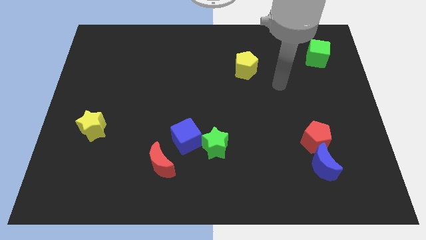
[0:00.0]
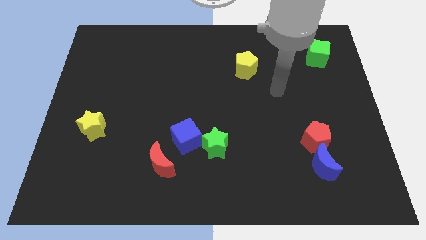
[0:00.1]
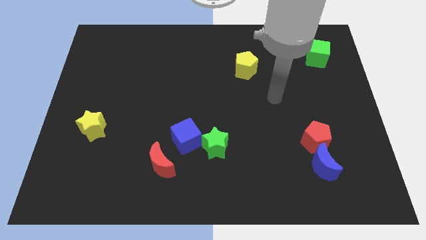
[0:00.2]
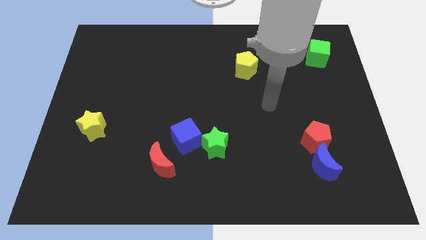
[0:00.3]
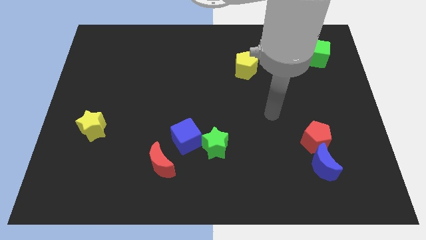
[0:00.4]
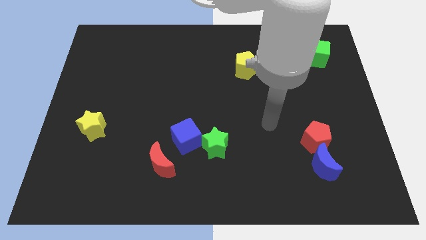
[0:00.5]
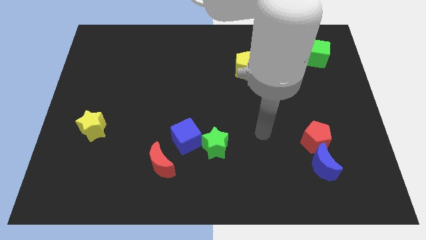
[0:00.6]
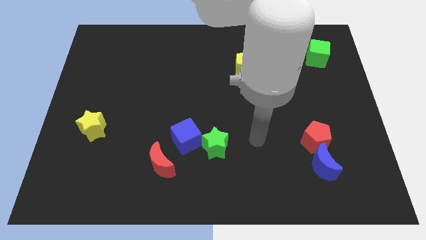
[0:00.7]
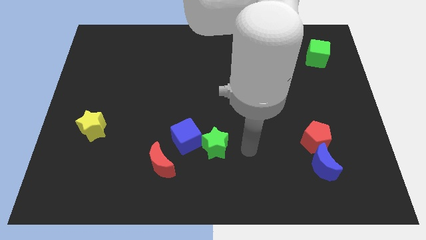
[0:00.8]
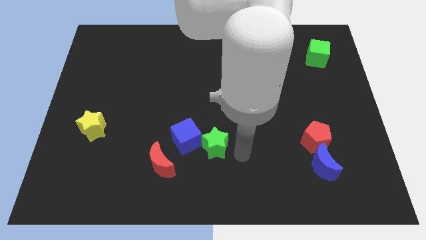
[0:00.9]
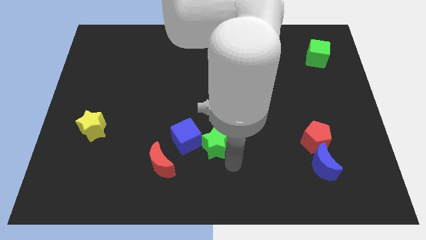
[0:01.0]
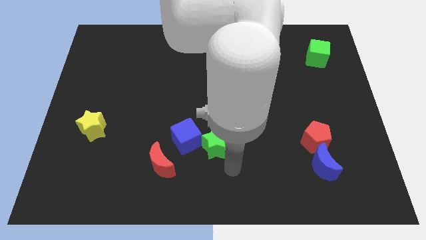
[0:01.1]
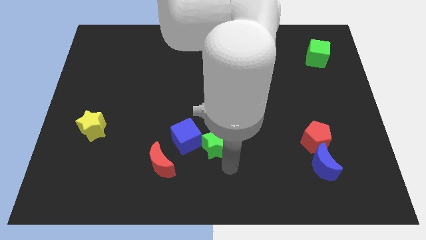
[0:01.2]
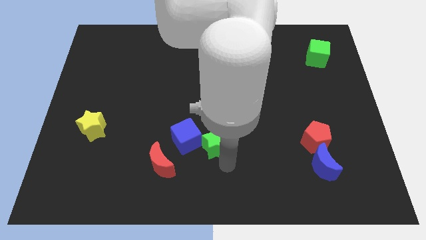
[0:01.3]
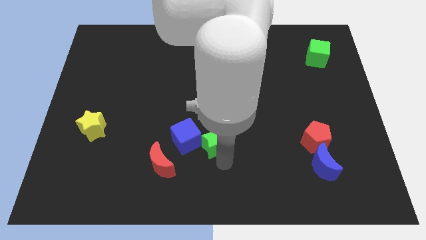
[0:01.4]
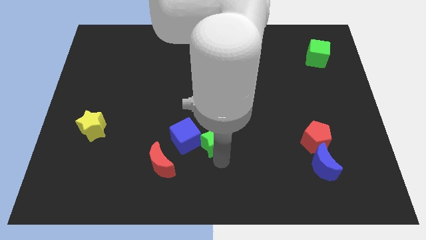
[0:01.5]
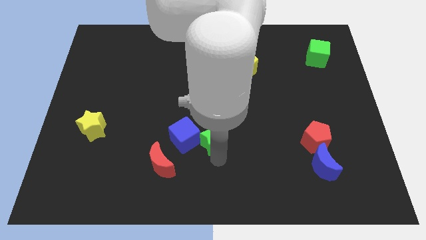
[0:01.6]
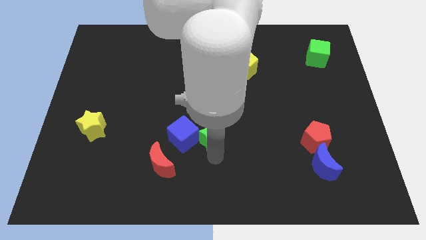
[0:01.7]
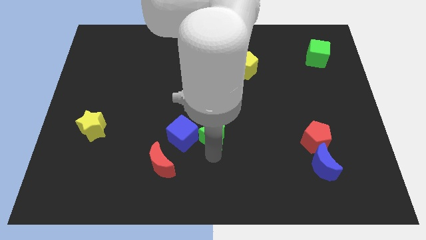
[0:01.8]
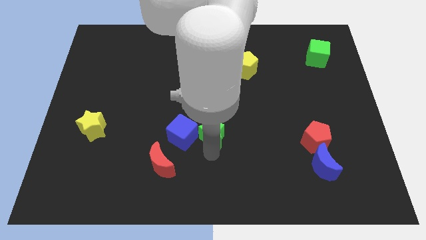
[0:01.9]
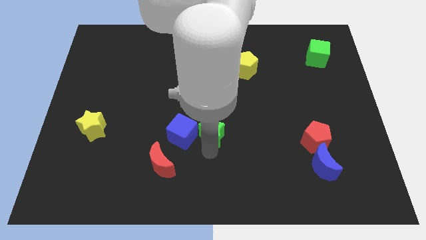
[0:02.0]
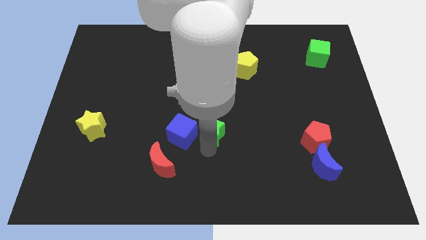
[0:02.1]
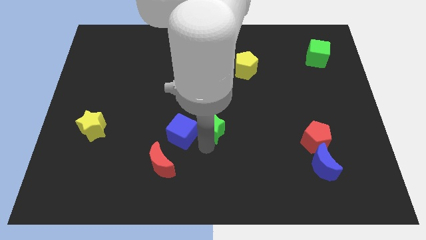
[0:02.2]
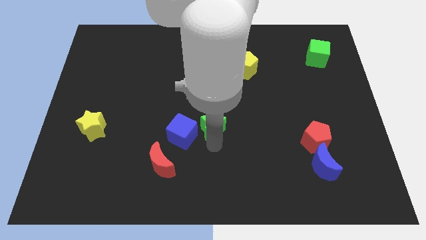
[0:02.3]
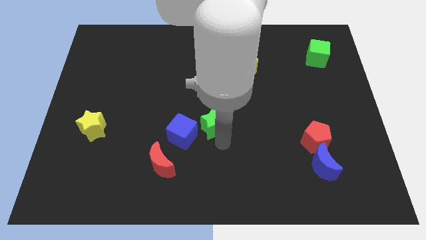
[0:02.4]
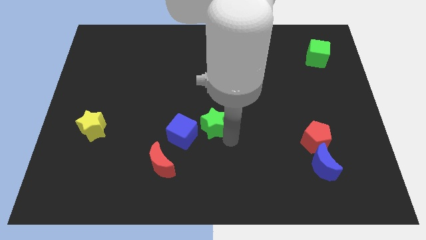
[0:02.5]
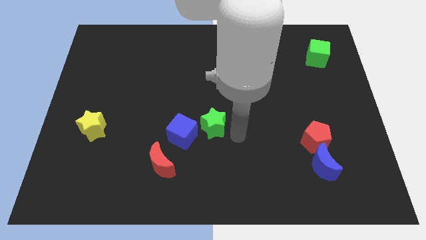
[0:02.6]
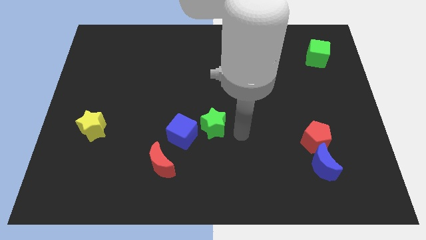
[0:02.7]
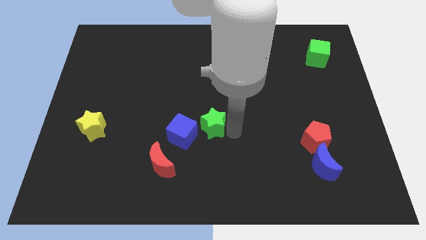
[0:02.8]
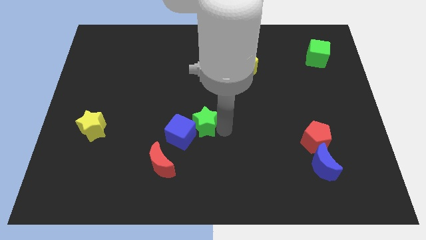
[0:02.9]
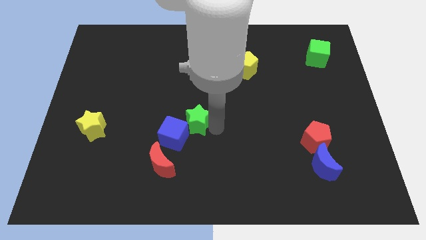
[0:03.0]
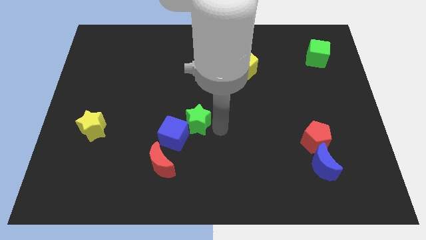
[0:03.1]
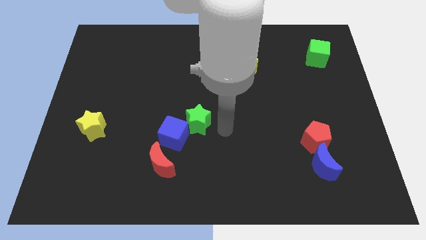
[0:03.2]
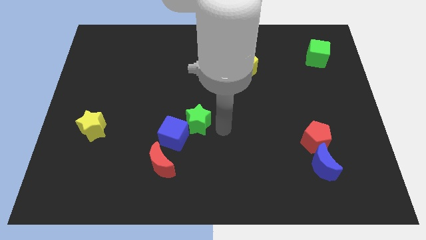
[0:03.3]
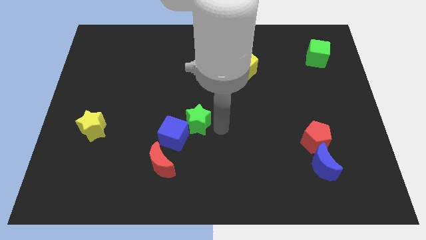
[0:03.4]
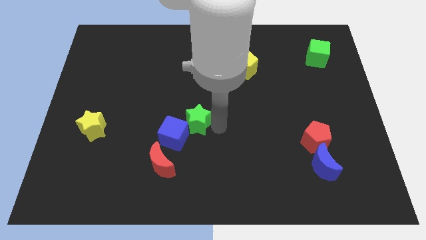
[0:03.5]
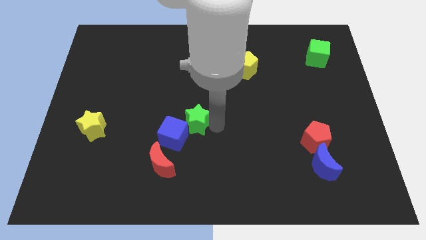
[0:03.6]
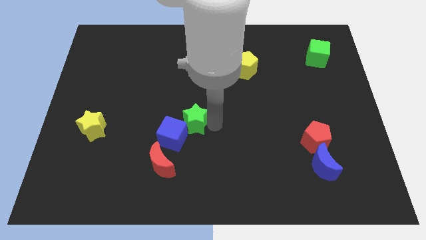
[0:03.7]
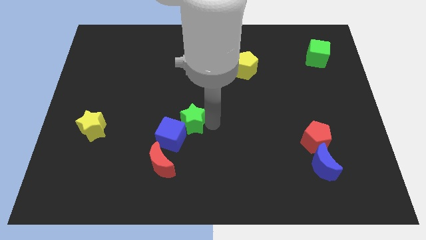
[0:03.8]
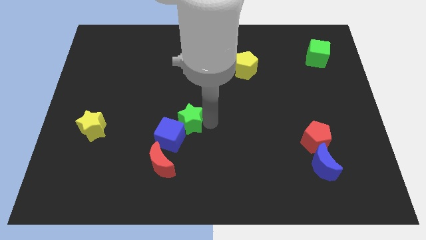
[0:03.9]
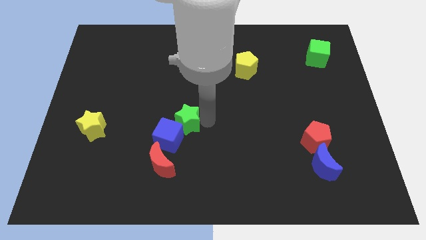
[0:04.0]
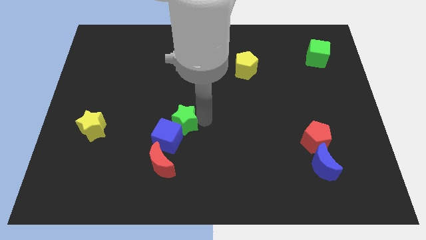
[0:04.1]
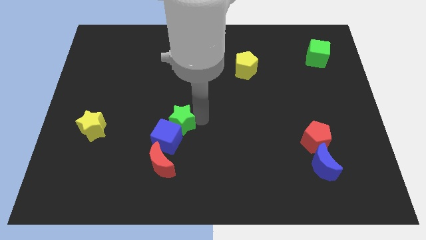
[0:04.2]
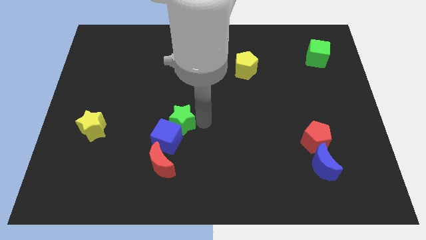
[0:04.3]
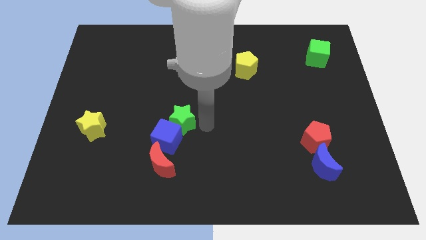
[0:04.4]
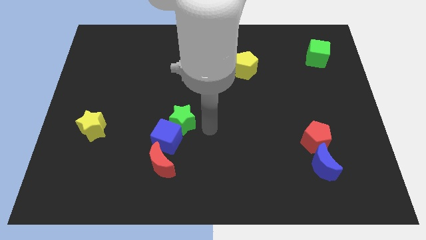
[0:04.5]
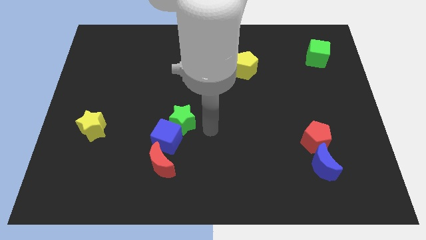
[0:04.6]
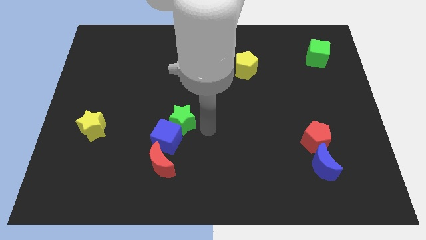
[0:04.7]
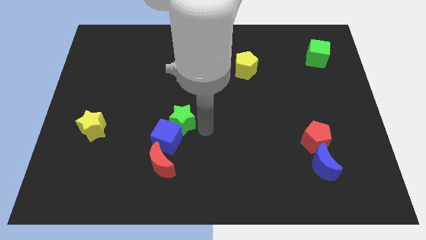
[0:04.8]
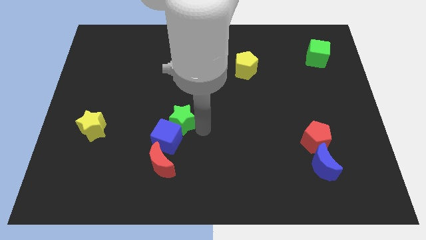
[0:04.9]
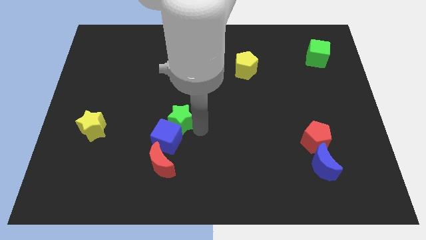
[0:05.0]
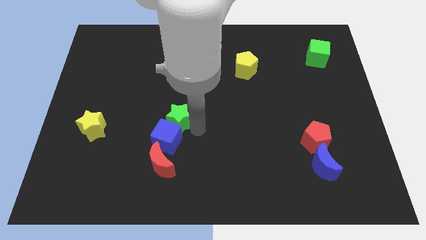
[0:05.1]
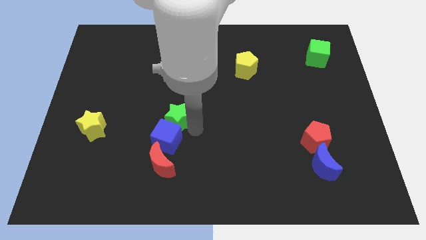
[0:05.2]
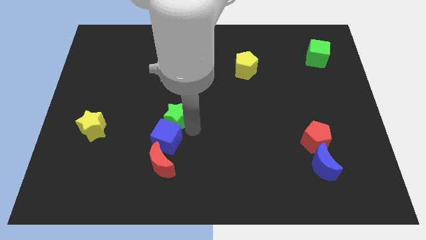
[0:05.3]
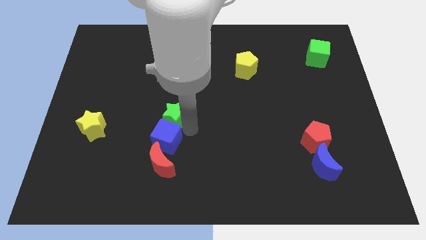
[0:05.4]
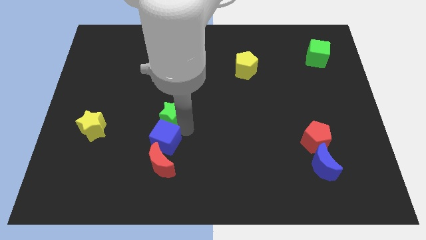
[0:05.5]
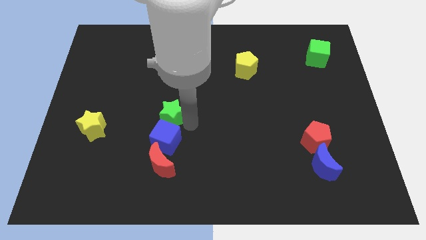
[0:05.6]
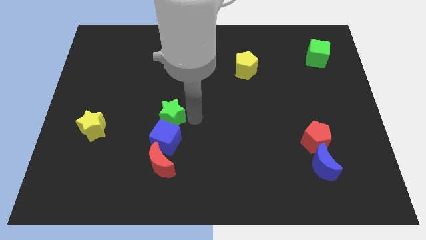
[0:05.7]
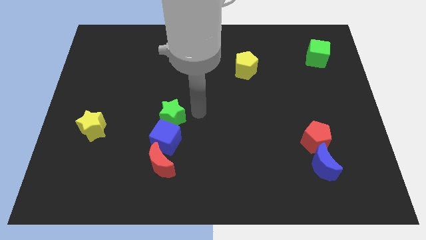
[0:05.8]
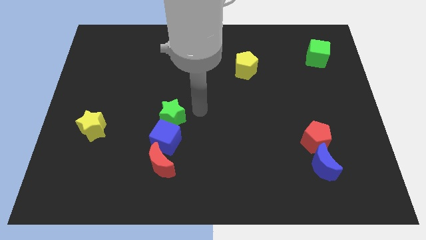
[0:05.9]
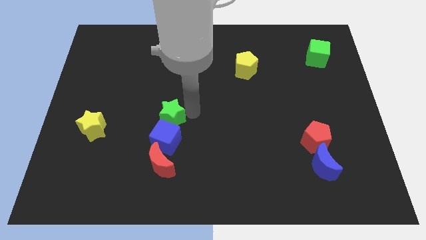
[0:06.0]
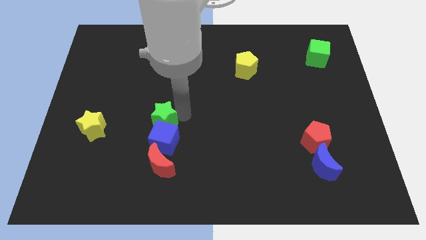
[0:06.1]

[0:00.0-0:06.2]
put the green star right of the yellow star

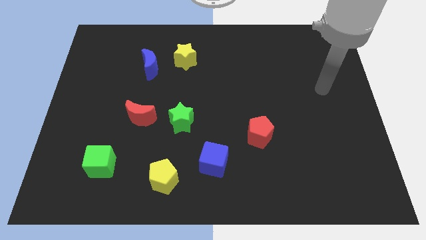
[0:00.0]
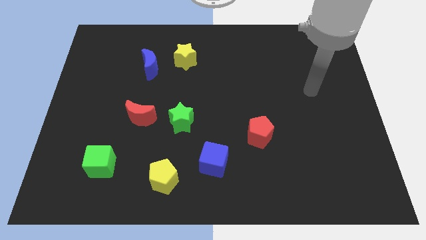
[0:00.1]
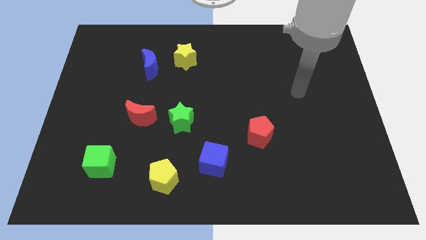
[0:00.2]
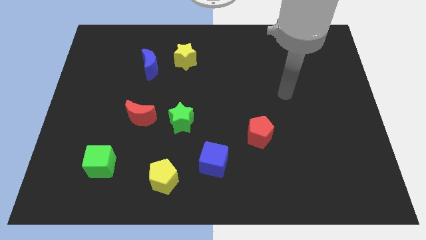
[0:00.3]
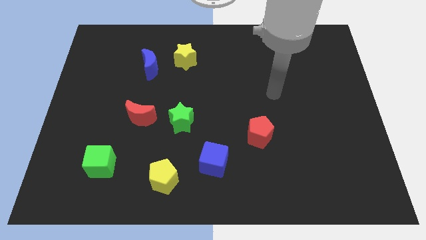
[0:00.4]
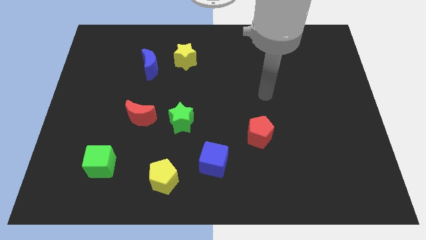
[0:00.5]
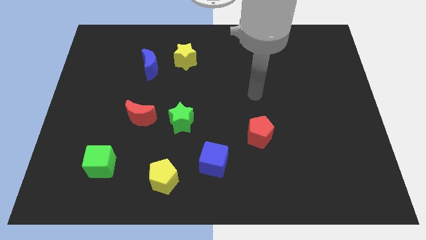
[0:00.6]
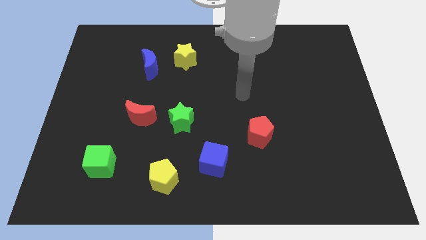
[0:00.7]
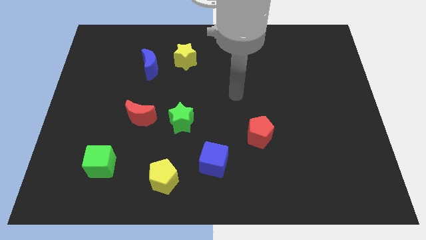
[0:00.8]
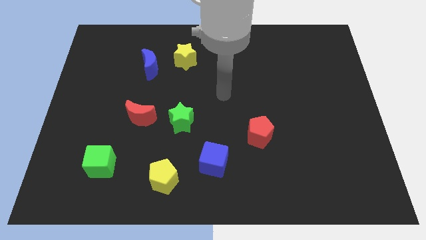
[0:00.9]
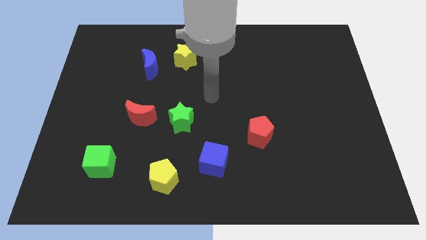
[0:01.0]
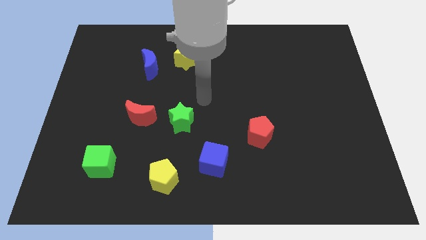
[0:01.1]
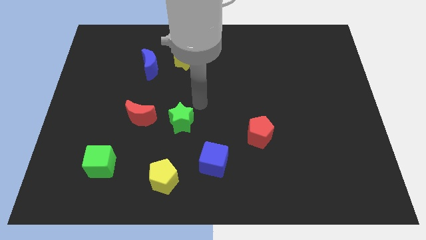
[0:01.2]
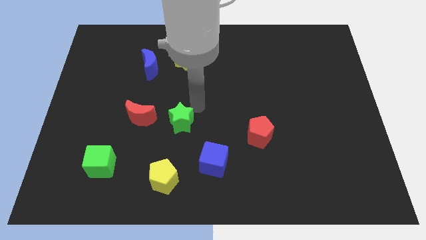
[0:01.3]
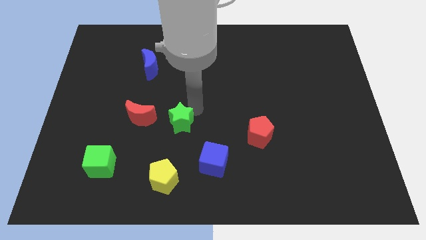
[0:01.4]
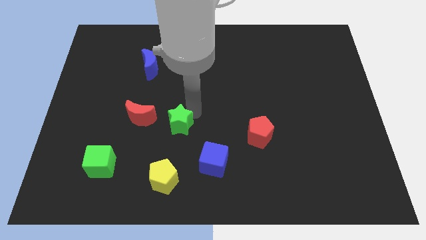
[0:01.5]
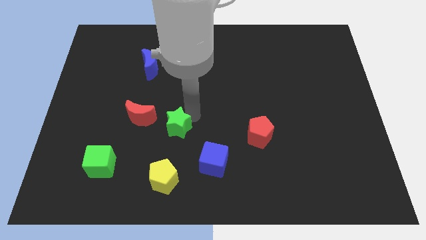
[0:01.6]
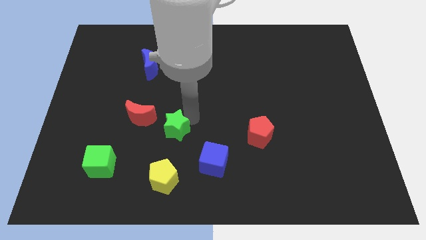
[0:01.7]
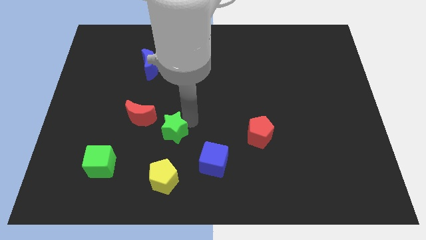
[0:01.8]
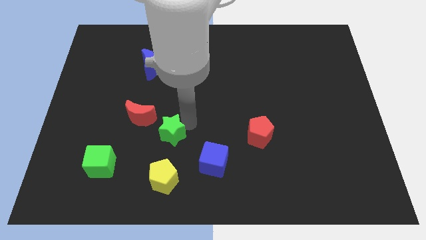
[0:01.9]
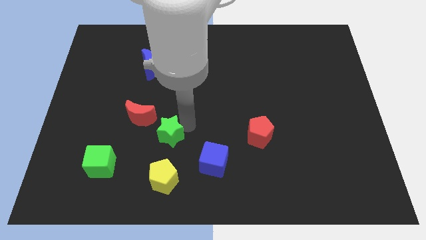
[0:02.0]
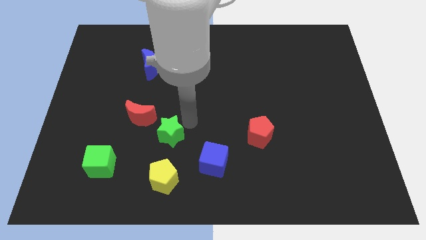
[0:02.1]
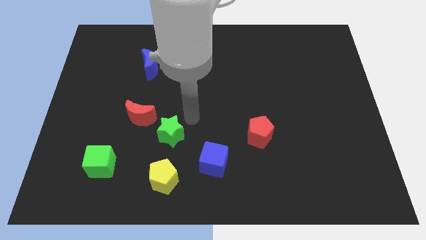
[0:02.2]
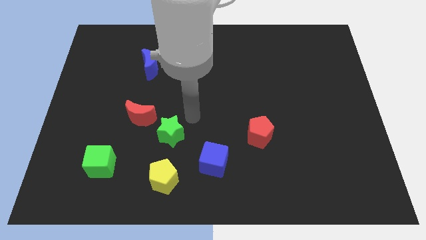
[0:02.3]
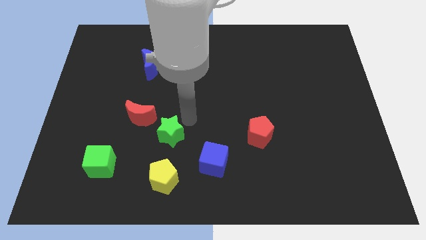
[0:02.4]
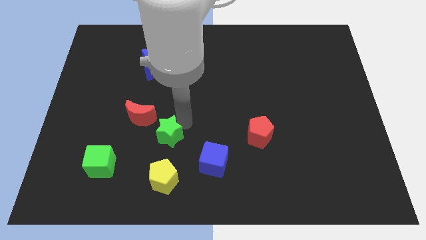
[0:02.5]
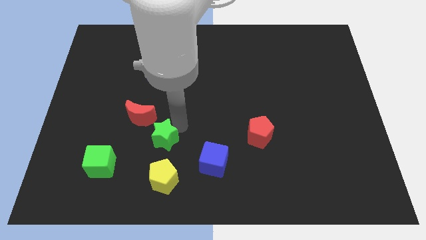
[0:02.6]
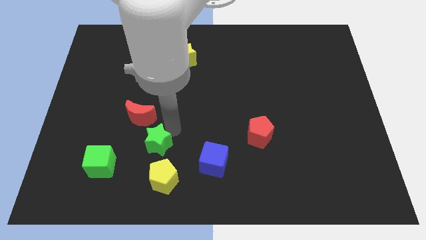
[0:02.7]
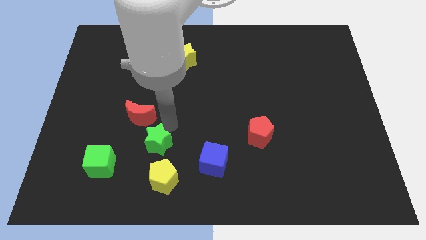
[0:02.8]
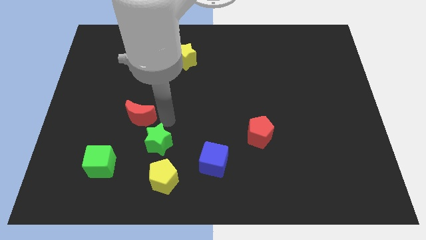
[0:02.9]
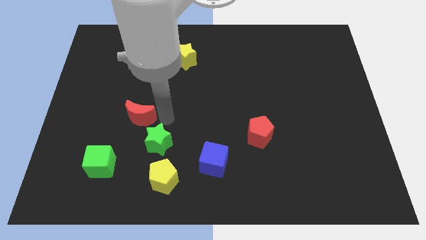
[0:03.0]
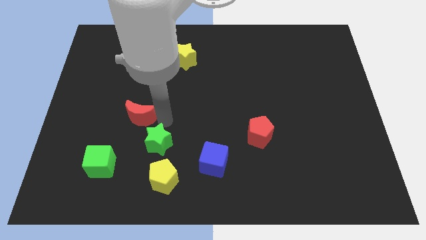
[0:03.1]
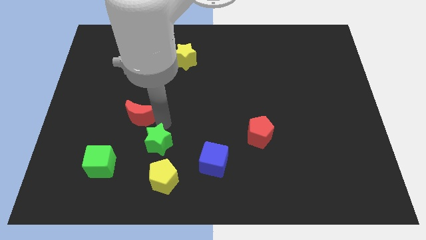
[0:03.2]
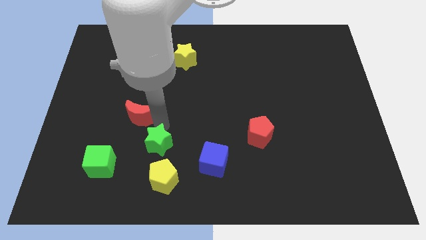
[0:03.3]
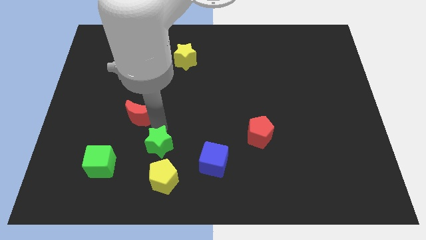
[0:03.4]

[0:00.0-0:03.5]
put the green star right of the green cube
